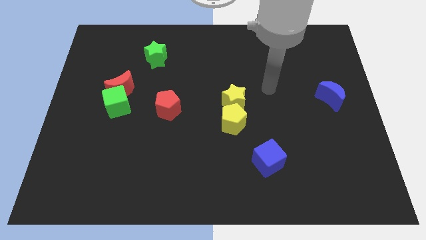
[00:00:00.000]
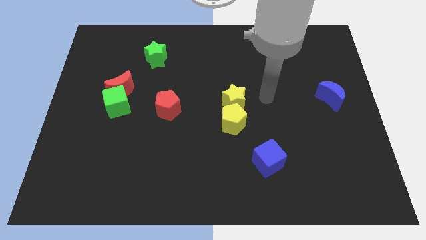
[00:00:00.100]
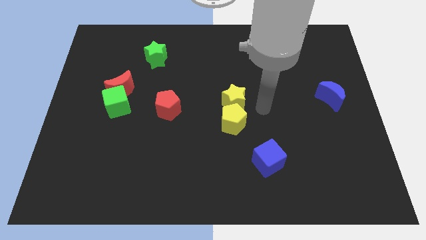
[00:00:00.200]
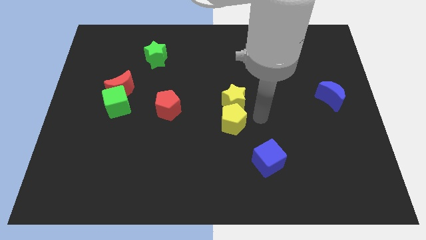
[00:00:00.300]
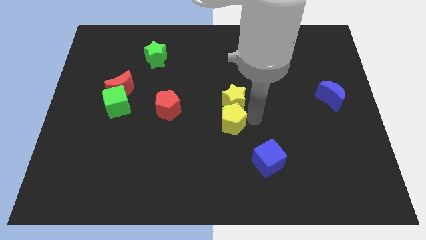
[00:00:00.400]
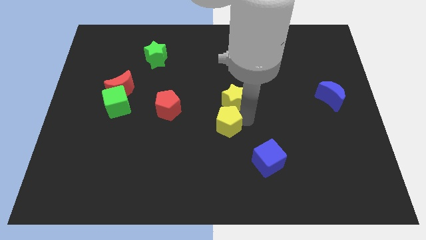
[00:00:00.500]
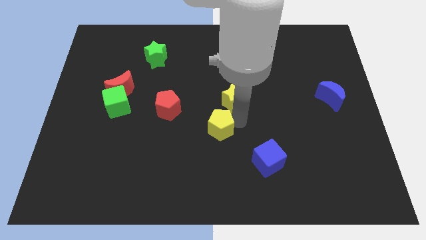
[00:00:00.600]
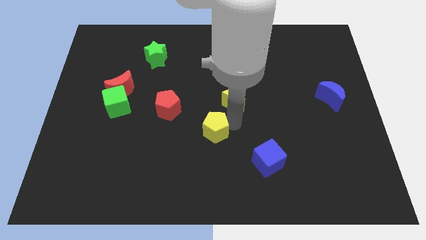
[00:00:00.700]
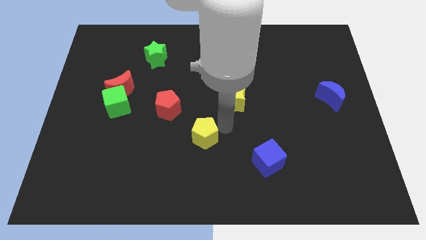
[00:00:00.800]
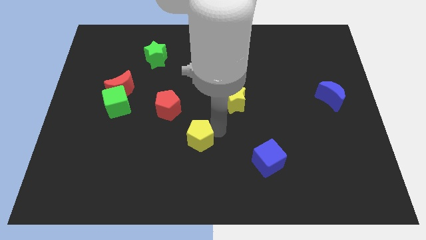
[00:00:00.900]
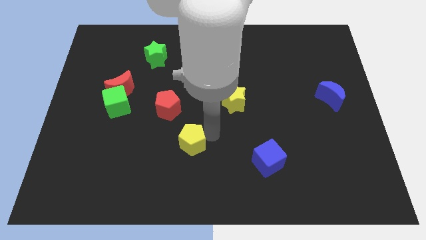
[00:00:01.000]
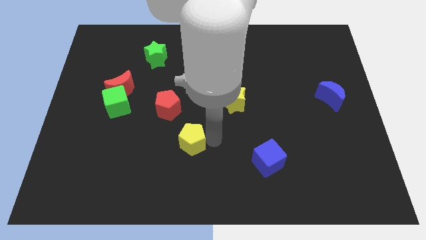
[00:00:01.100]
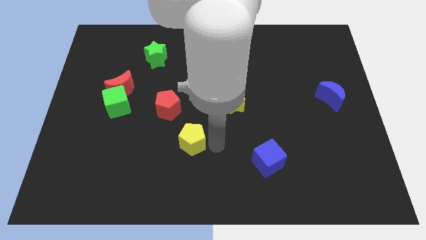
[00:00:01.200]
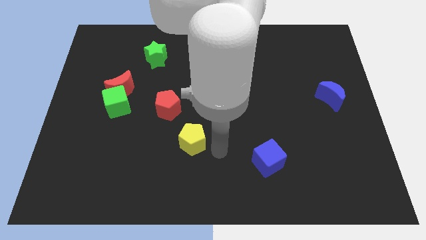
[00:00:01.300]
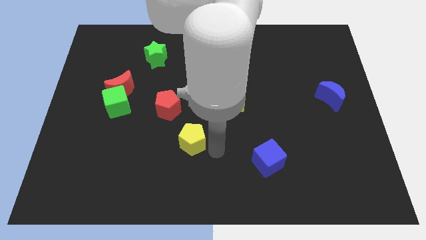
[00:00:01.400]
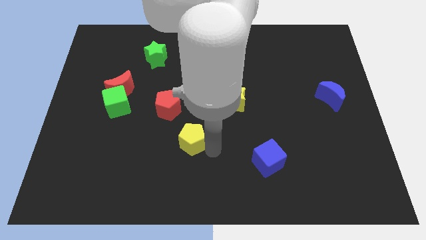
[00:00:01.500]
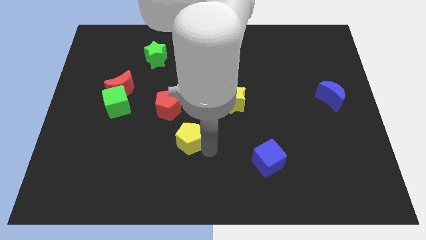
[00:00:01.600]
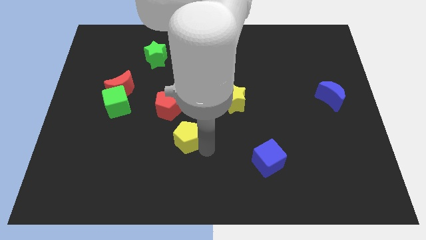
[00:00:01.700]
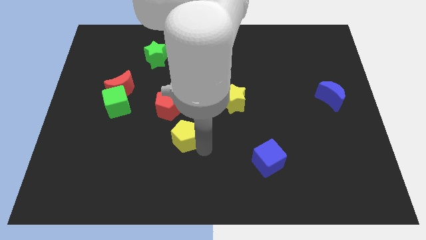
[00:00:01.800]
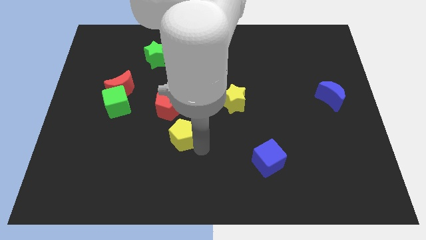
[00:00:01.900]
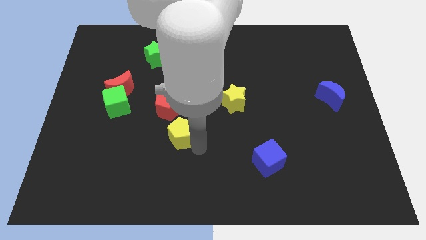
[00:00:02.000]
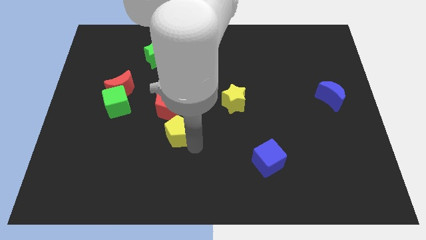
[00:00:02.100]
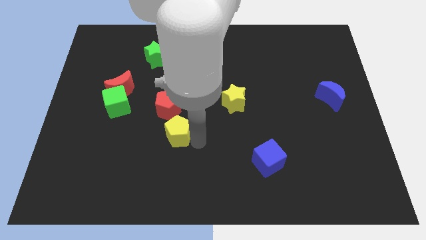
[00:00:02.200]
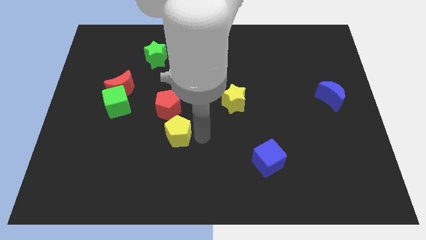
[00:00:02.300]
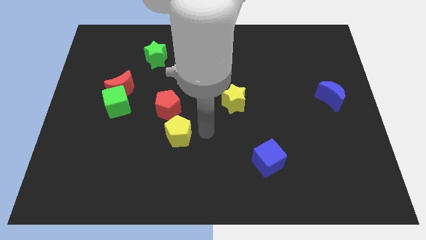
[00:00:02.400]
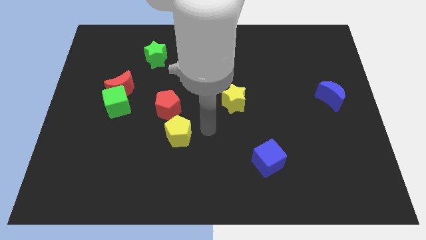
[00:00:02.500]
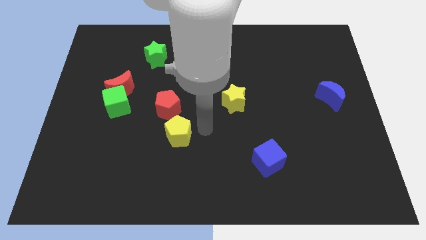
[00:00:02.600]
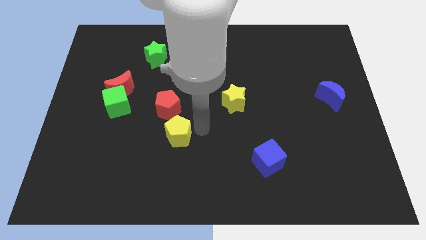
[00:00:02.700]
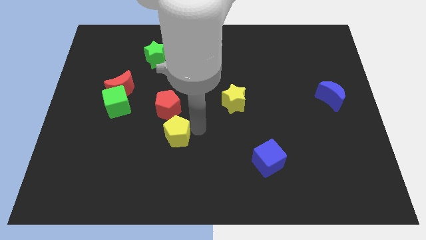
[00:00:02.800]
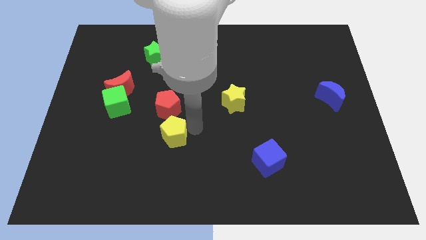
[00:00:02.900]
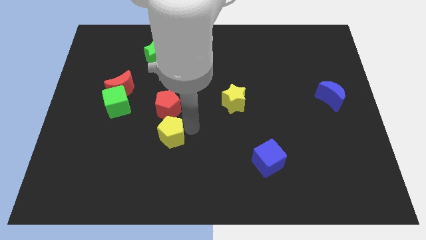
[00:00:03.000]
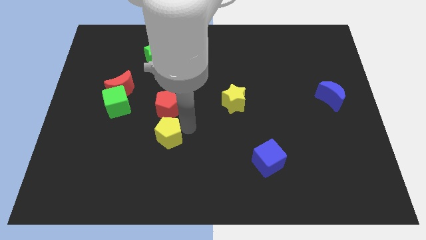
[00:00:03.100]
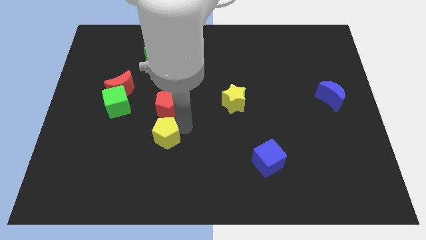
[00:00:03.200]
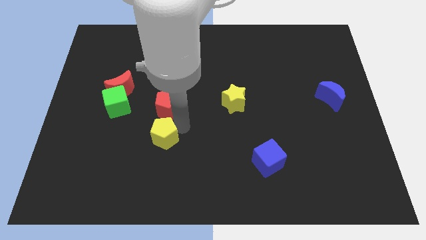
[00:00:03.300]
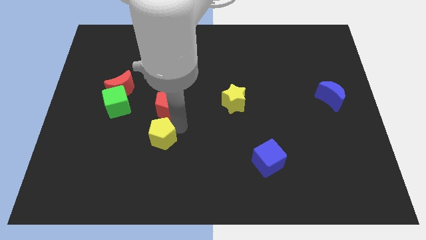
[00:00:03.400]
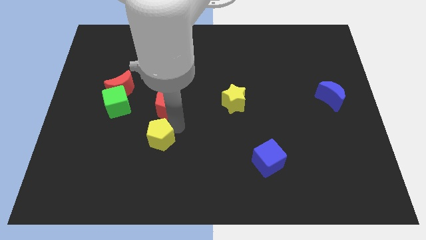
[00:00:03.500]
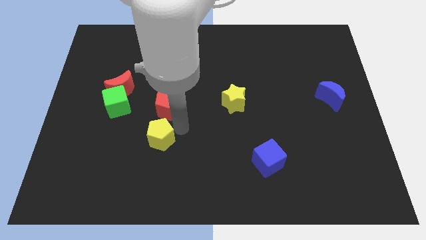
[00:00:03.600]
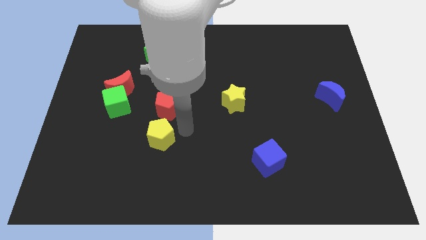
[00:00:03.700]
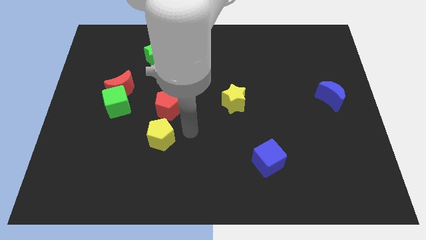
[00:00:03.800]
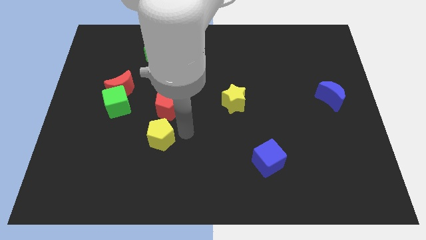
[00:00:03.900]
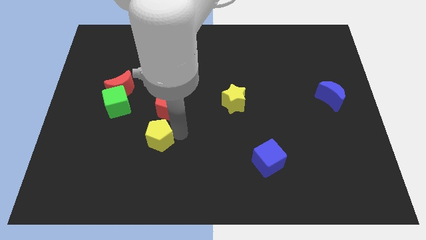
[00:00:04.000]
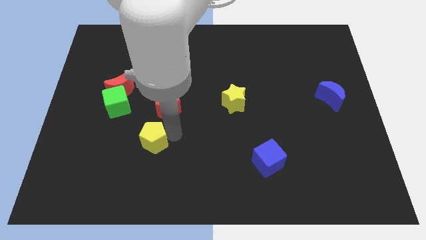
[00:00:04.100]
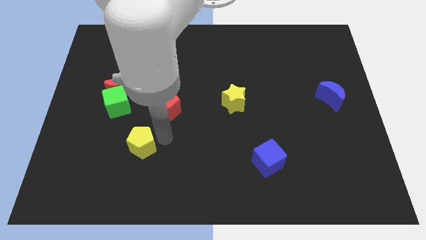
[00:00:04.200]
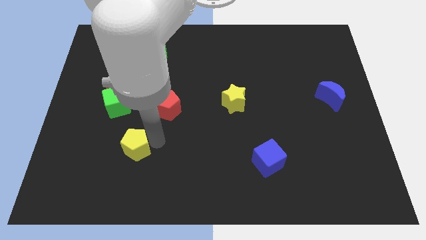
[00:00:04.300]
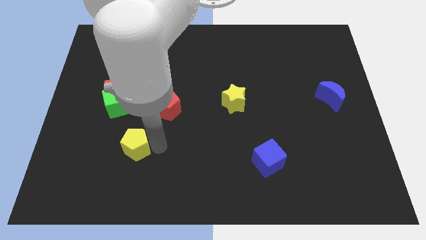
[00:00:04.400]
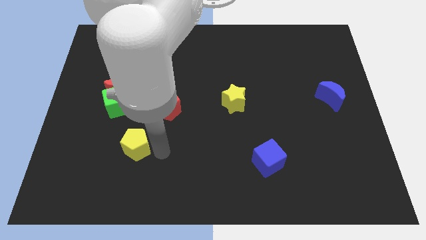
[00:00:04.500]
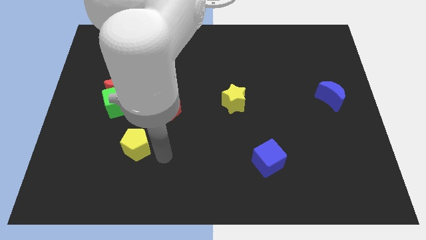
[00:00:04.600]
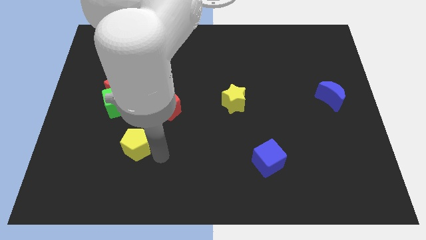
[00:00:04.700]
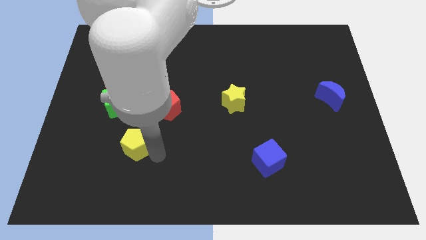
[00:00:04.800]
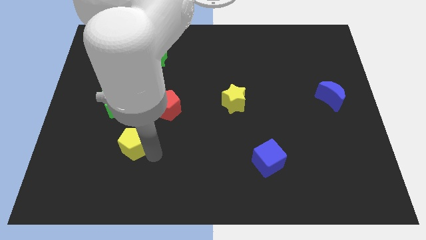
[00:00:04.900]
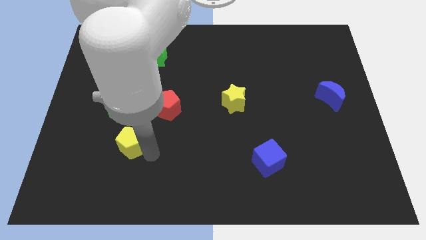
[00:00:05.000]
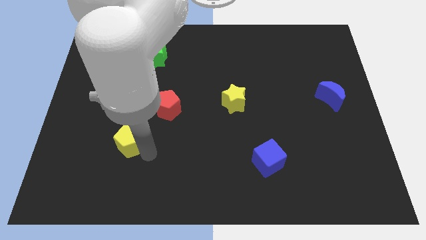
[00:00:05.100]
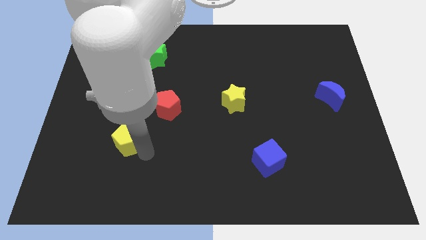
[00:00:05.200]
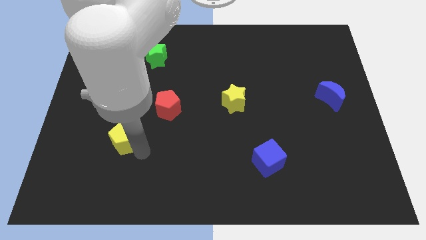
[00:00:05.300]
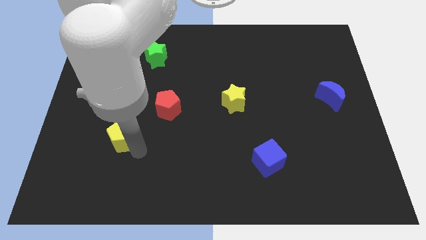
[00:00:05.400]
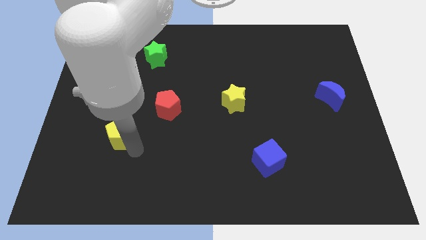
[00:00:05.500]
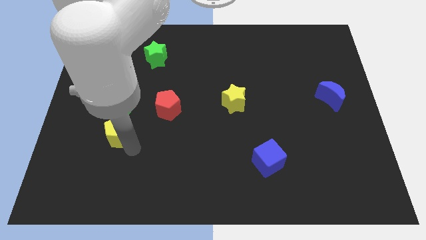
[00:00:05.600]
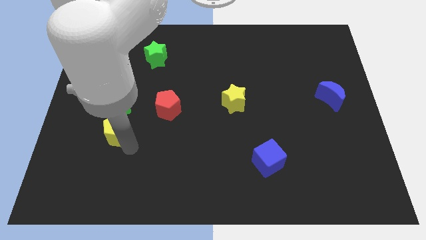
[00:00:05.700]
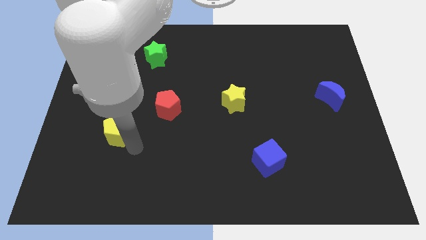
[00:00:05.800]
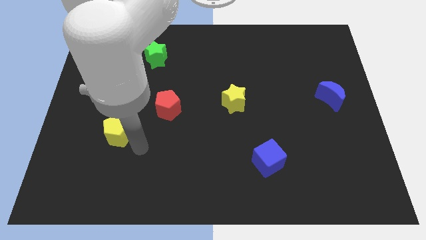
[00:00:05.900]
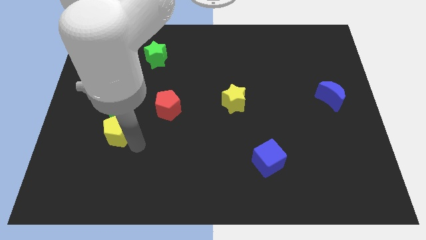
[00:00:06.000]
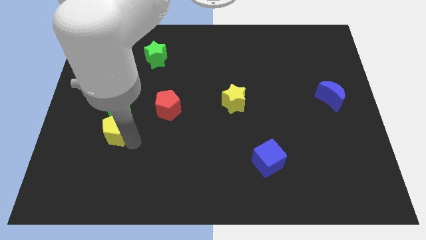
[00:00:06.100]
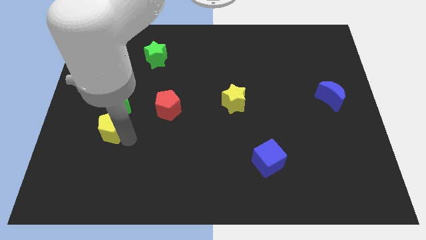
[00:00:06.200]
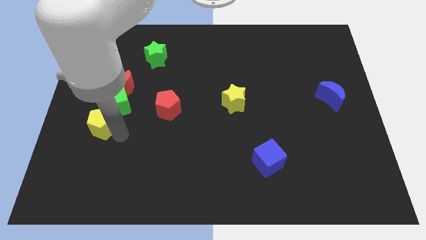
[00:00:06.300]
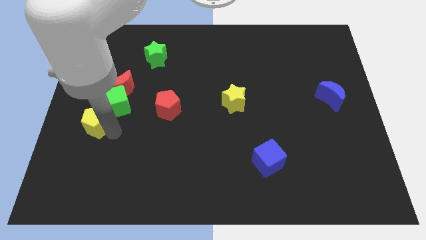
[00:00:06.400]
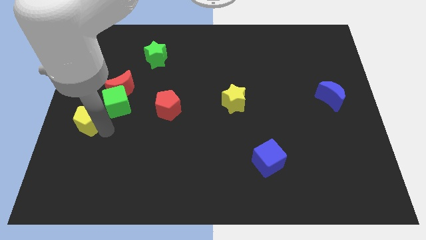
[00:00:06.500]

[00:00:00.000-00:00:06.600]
put the yellow pentagon diagonally down and to the left of the red moon

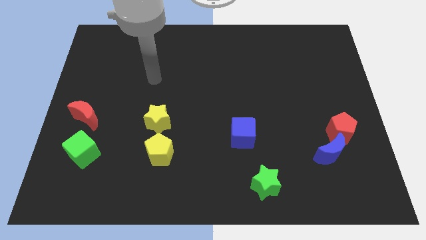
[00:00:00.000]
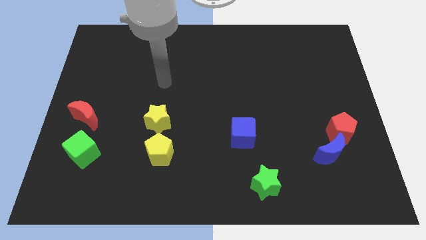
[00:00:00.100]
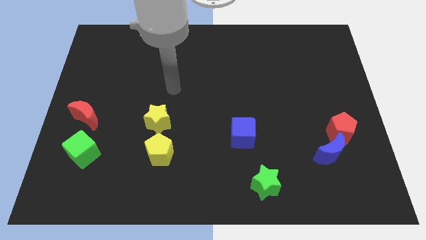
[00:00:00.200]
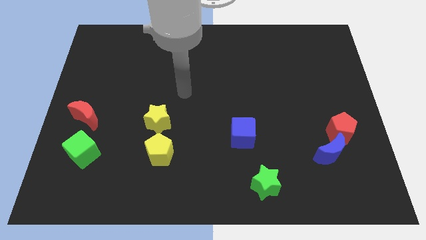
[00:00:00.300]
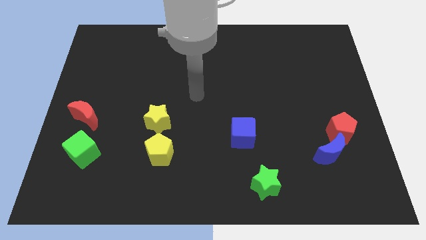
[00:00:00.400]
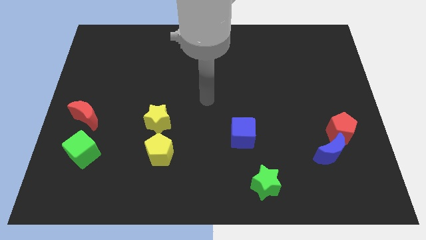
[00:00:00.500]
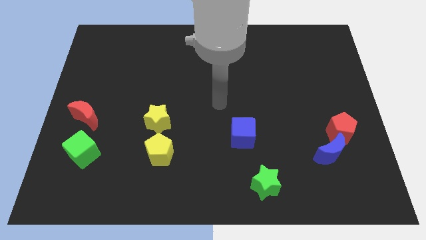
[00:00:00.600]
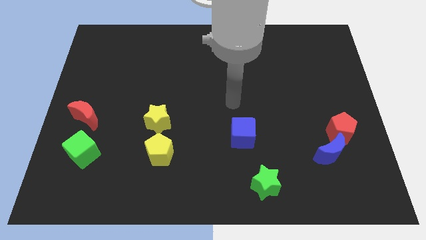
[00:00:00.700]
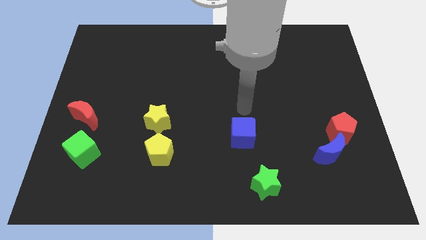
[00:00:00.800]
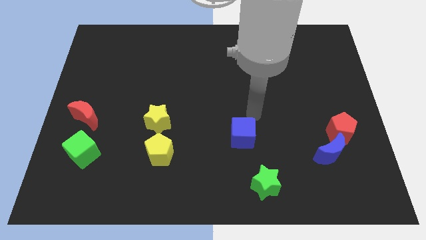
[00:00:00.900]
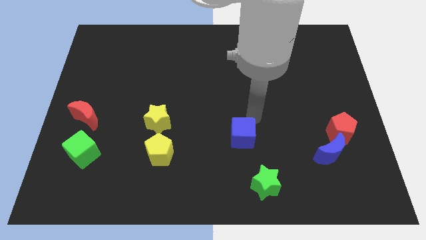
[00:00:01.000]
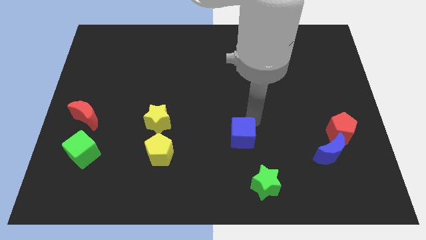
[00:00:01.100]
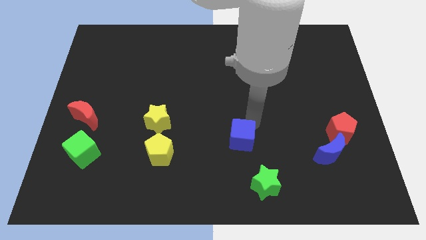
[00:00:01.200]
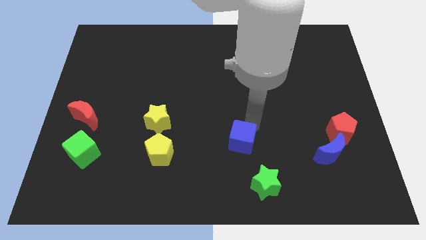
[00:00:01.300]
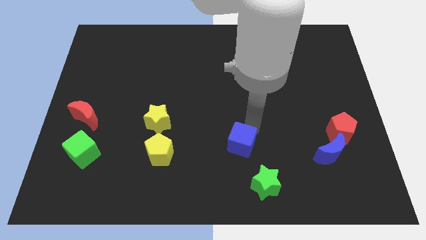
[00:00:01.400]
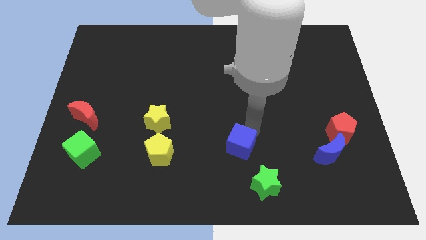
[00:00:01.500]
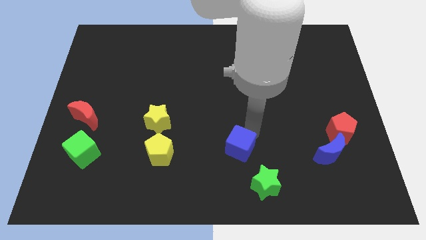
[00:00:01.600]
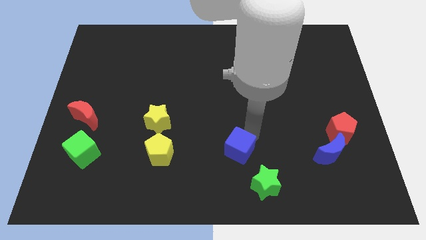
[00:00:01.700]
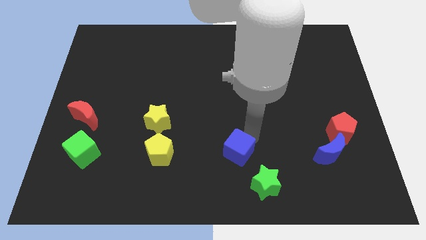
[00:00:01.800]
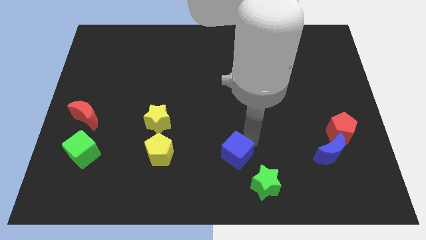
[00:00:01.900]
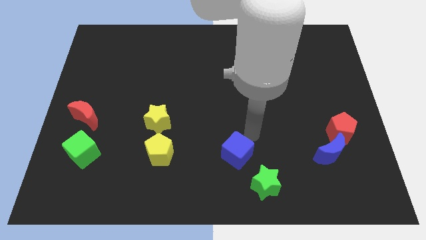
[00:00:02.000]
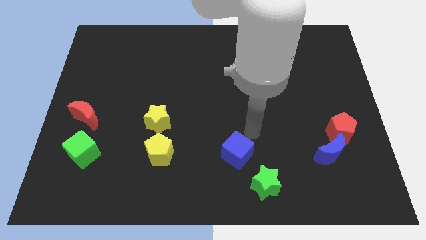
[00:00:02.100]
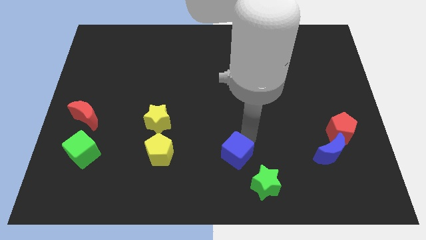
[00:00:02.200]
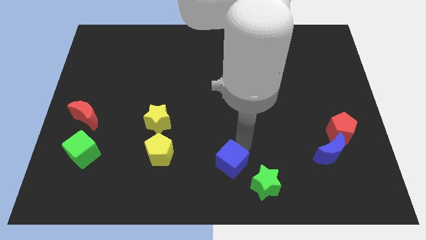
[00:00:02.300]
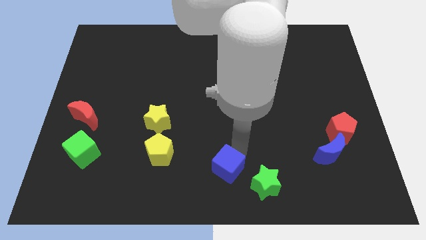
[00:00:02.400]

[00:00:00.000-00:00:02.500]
move the blue cube to the left side of the green star
